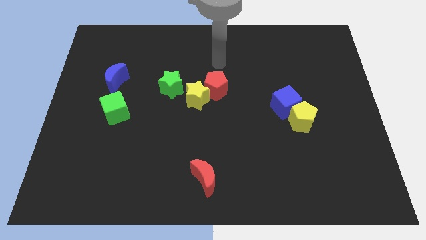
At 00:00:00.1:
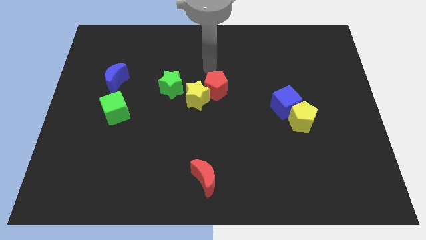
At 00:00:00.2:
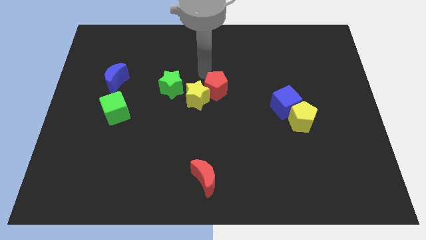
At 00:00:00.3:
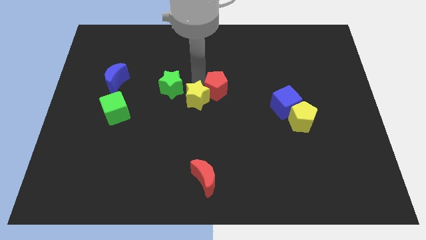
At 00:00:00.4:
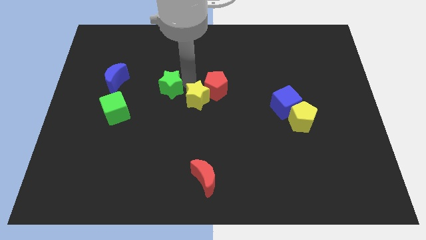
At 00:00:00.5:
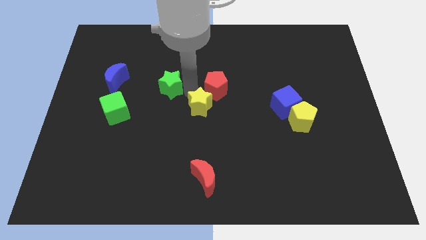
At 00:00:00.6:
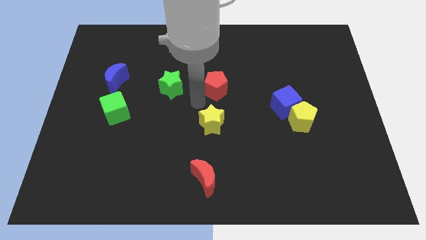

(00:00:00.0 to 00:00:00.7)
move the red pentagon away from the yellow star

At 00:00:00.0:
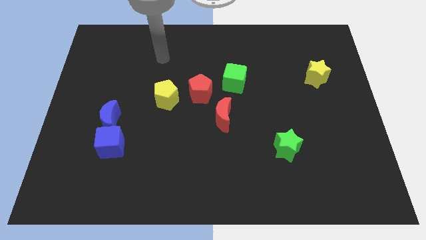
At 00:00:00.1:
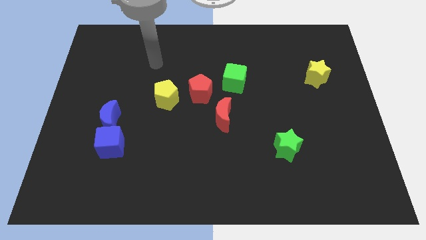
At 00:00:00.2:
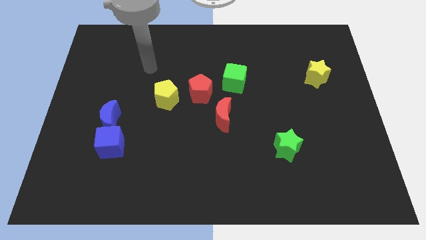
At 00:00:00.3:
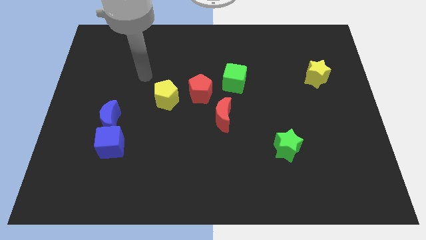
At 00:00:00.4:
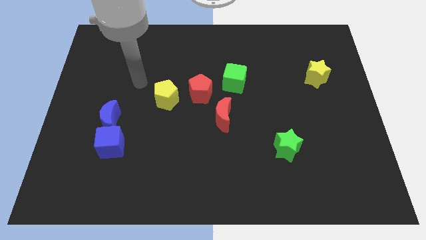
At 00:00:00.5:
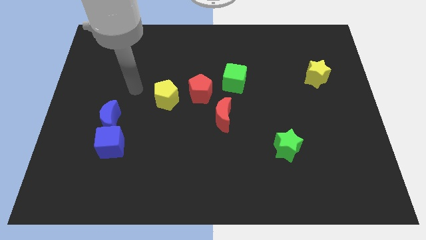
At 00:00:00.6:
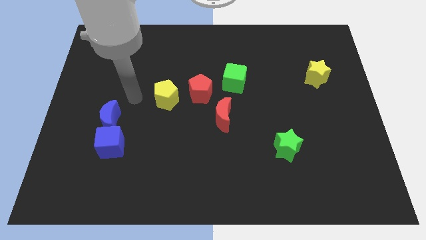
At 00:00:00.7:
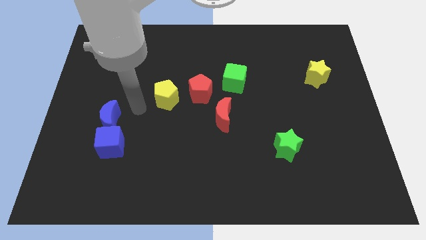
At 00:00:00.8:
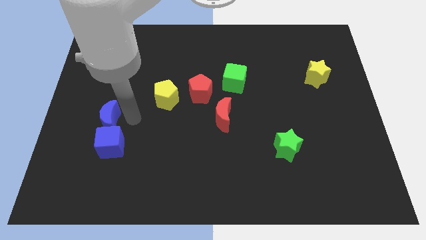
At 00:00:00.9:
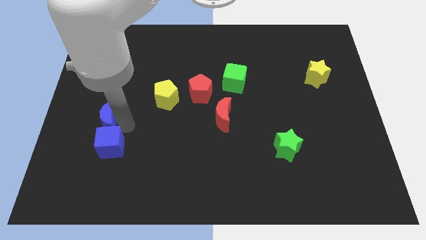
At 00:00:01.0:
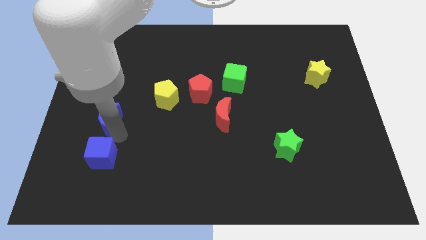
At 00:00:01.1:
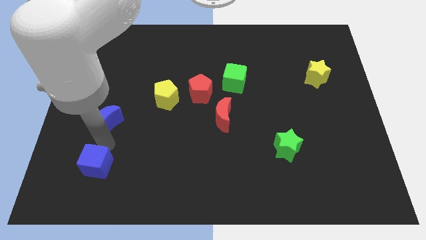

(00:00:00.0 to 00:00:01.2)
separate the blue moon from the blue cube

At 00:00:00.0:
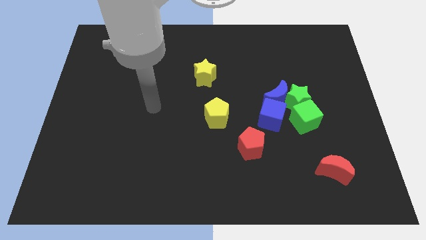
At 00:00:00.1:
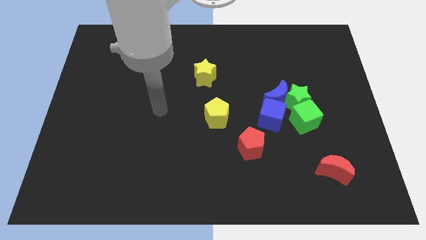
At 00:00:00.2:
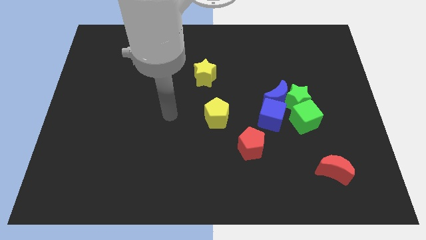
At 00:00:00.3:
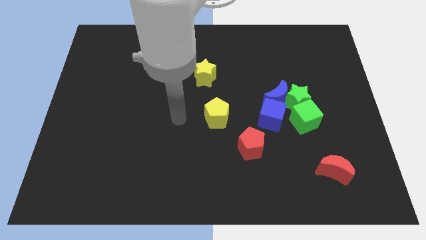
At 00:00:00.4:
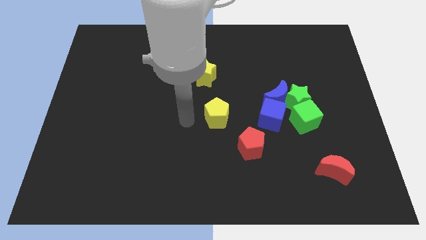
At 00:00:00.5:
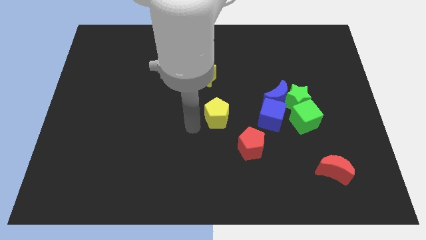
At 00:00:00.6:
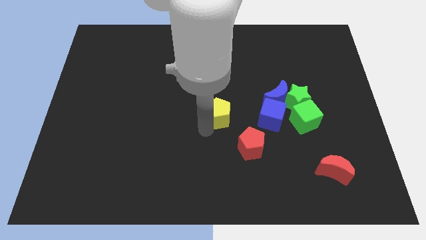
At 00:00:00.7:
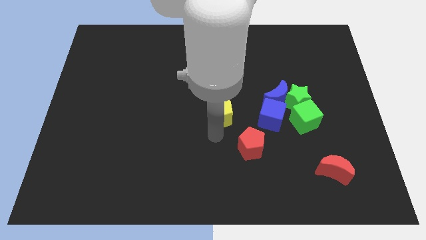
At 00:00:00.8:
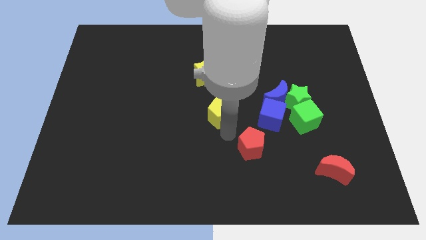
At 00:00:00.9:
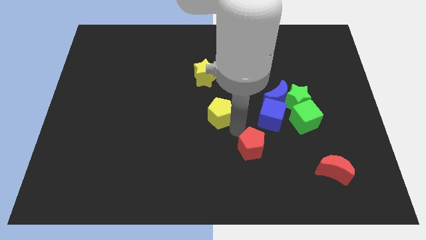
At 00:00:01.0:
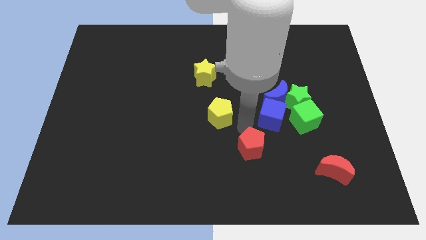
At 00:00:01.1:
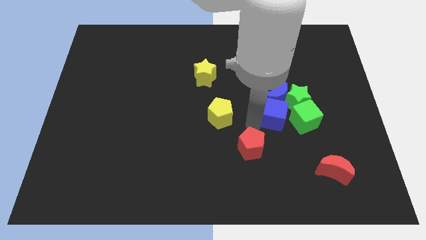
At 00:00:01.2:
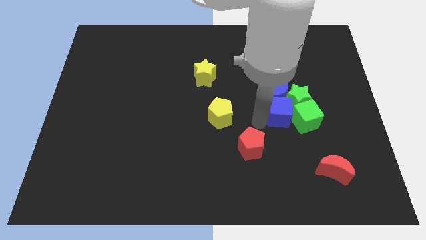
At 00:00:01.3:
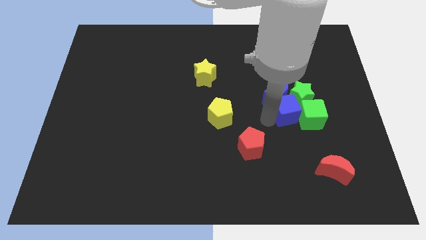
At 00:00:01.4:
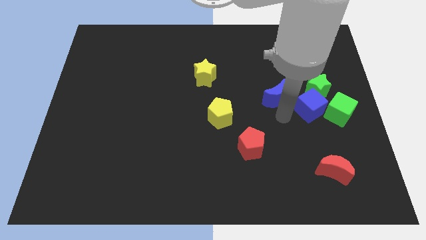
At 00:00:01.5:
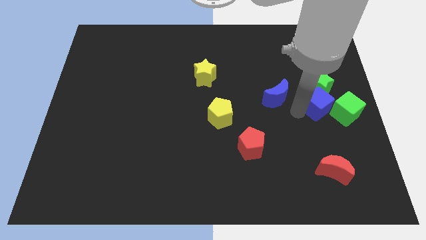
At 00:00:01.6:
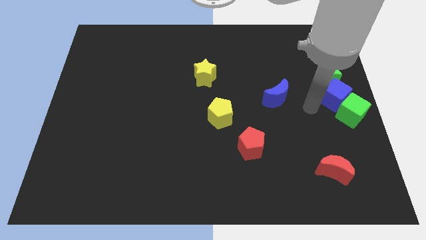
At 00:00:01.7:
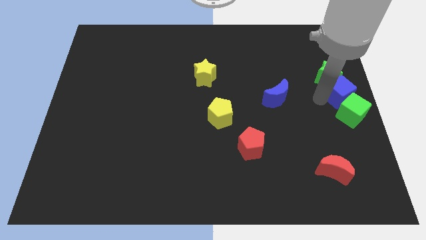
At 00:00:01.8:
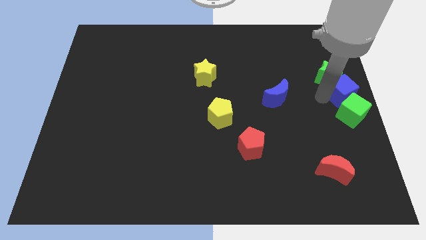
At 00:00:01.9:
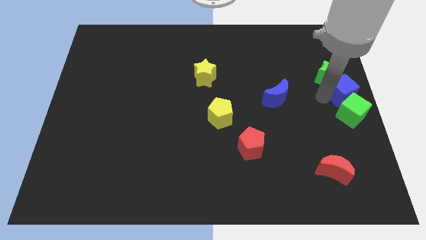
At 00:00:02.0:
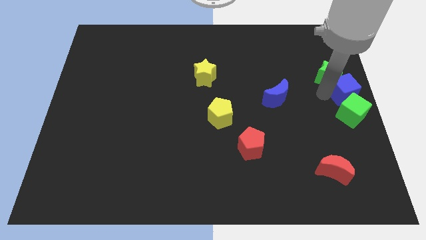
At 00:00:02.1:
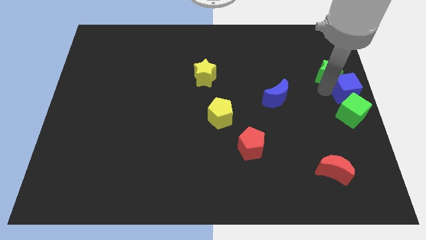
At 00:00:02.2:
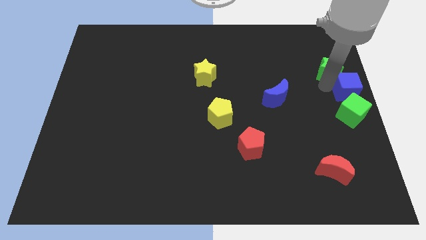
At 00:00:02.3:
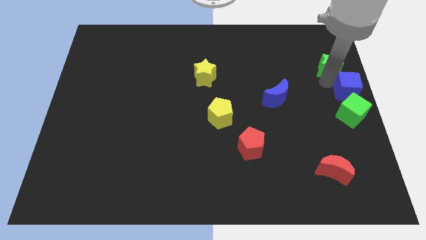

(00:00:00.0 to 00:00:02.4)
separate the green star from the blue moon, green cube, and blue cube

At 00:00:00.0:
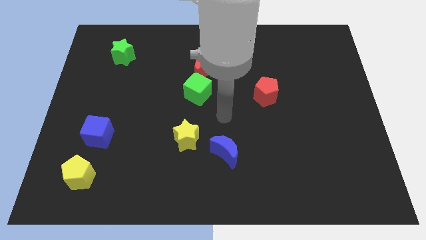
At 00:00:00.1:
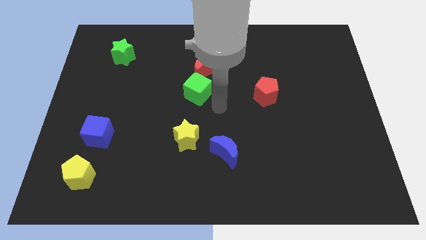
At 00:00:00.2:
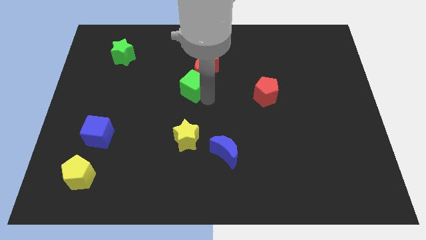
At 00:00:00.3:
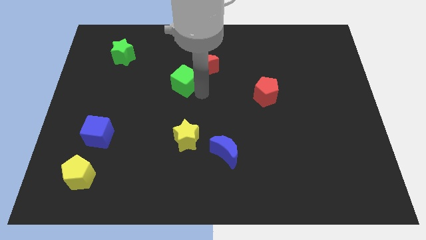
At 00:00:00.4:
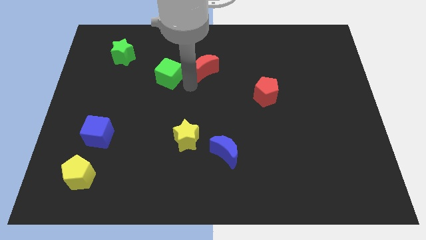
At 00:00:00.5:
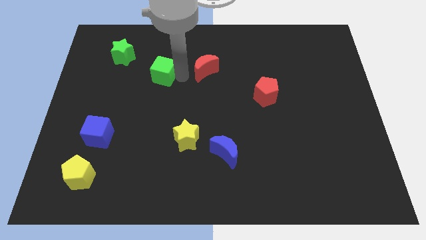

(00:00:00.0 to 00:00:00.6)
move the red moon away from the green cube

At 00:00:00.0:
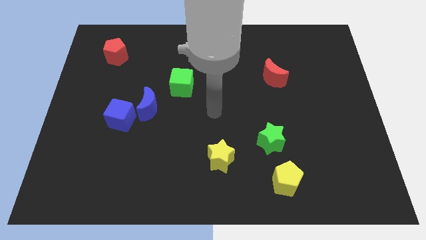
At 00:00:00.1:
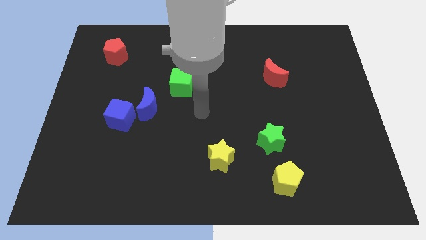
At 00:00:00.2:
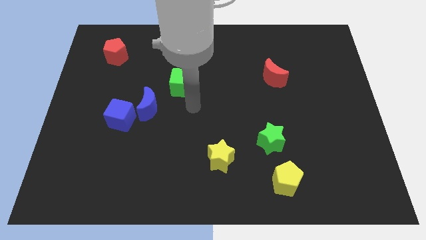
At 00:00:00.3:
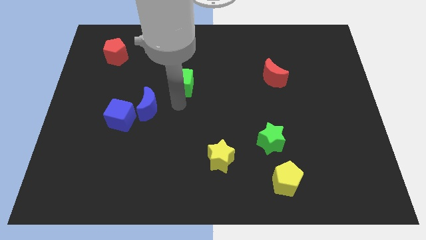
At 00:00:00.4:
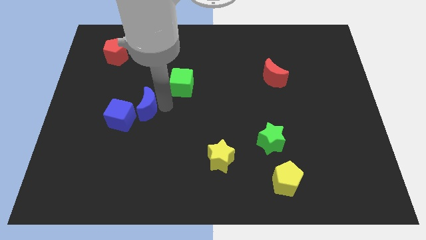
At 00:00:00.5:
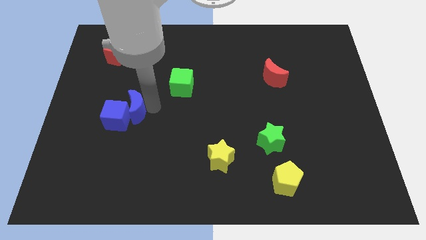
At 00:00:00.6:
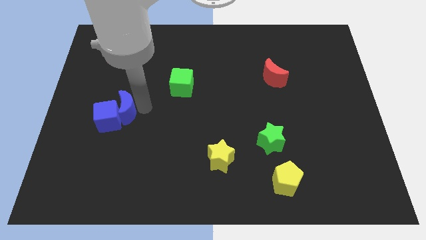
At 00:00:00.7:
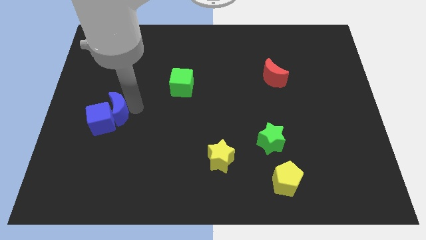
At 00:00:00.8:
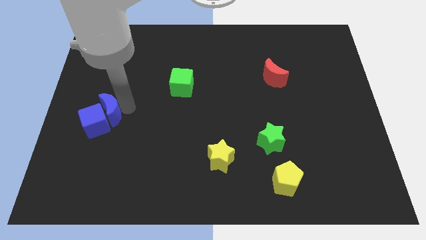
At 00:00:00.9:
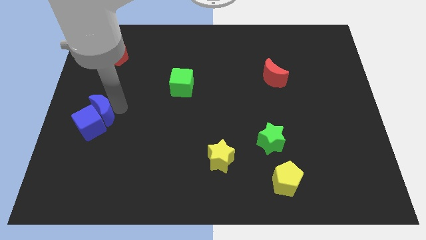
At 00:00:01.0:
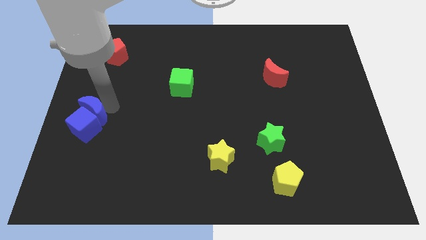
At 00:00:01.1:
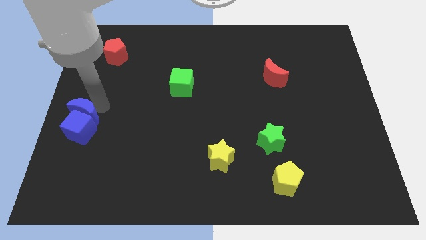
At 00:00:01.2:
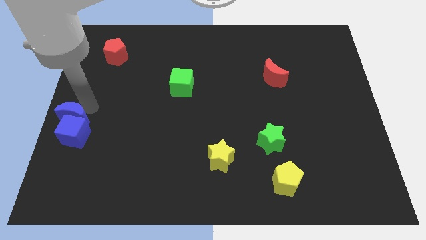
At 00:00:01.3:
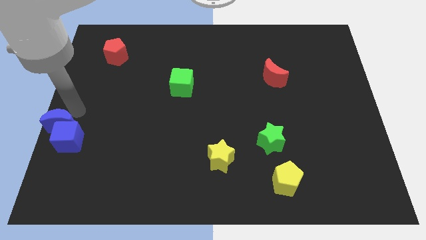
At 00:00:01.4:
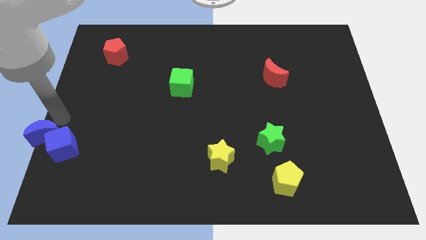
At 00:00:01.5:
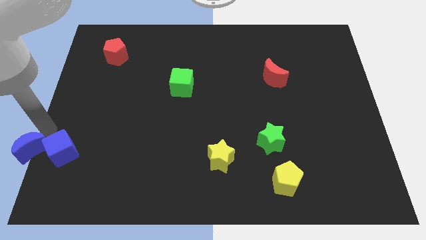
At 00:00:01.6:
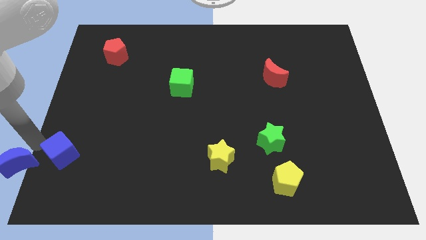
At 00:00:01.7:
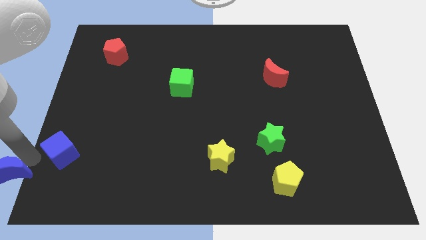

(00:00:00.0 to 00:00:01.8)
separate the blue cube from the blue moon

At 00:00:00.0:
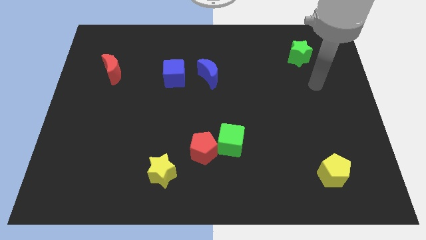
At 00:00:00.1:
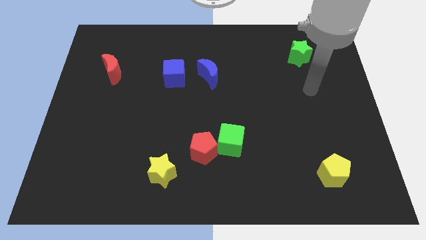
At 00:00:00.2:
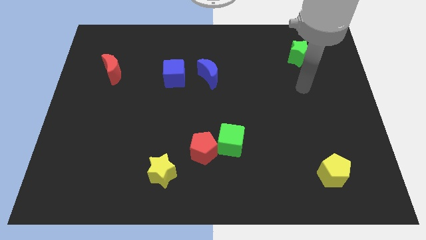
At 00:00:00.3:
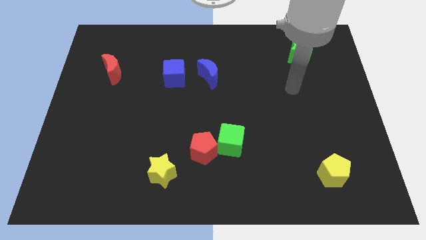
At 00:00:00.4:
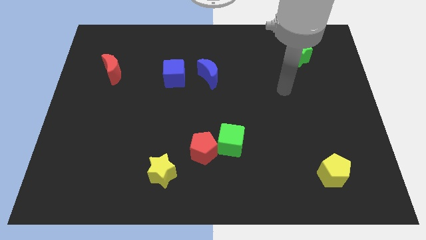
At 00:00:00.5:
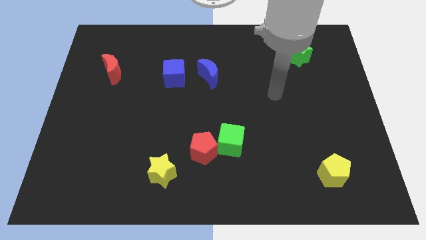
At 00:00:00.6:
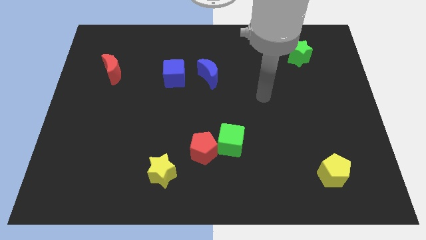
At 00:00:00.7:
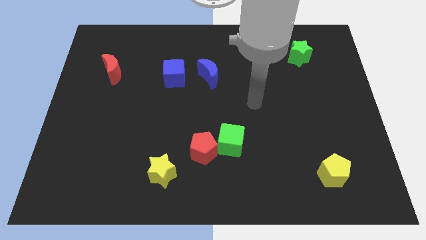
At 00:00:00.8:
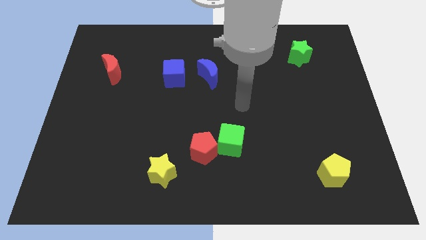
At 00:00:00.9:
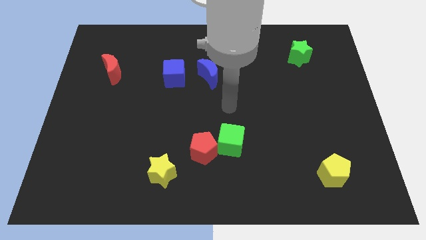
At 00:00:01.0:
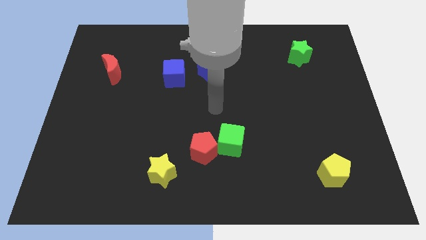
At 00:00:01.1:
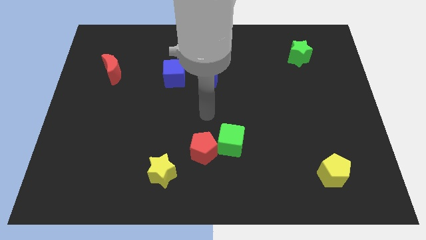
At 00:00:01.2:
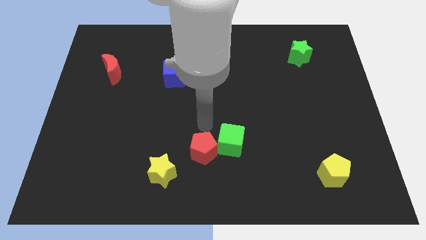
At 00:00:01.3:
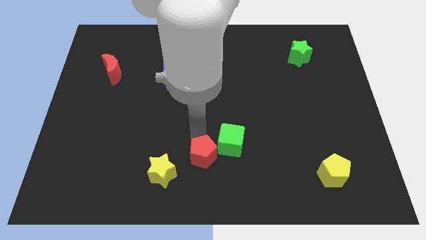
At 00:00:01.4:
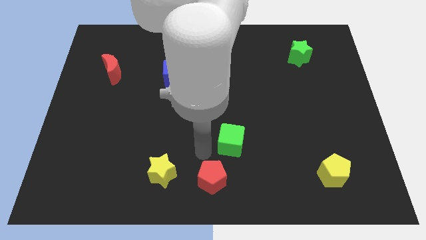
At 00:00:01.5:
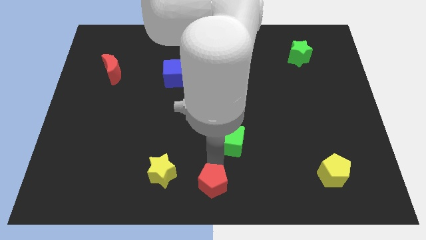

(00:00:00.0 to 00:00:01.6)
pull the green cube apart from the red pentagon

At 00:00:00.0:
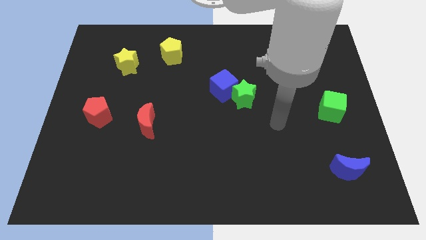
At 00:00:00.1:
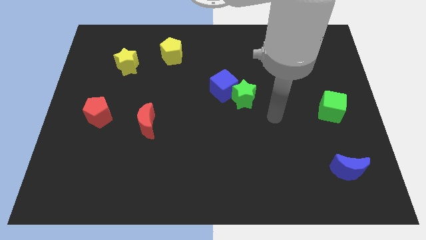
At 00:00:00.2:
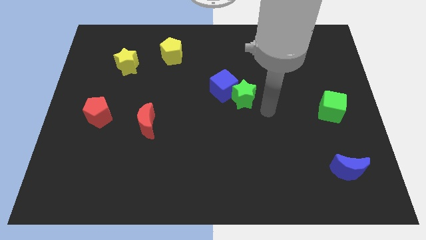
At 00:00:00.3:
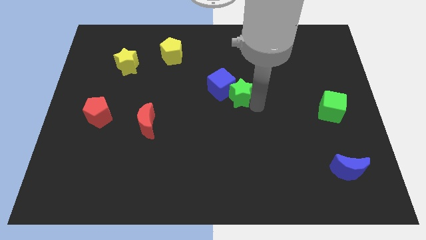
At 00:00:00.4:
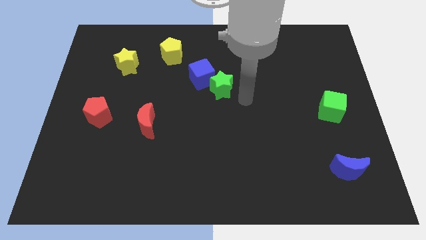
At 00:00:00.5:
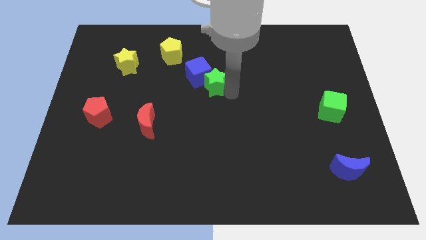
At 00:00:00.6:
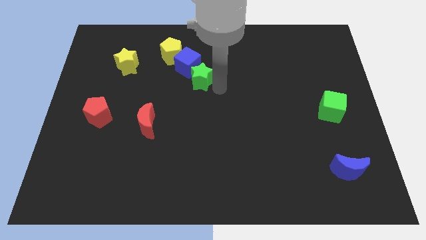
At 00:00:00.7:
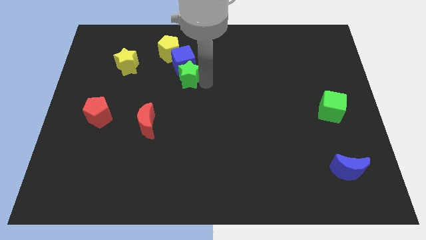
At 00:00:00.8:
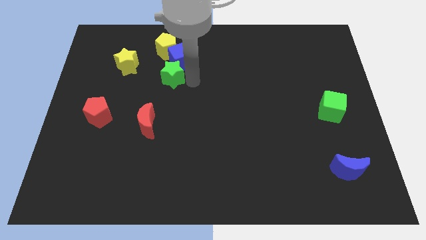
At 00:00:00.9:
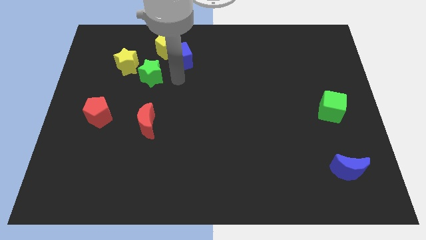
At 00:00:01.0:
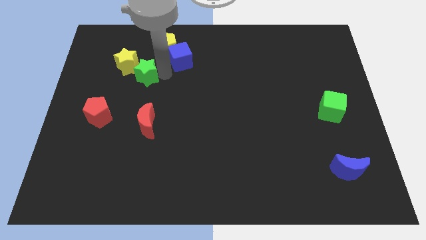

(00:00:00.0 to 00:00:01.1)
move the blue cube away from the green star
